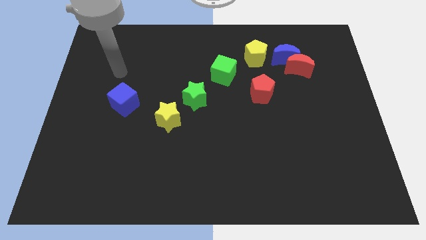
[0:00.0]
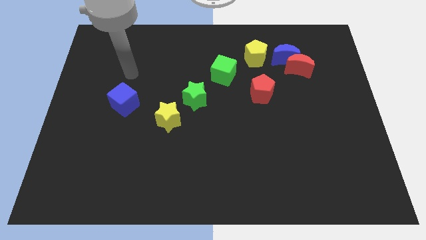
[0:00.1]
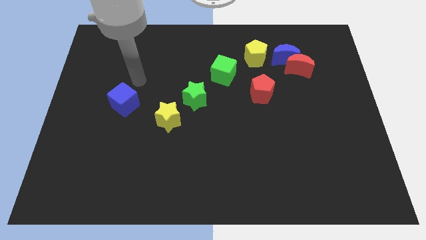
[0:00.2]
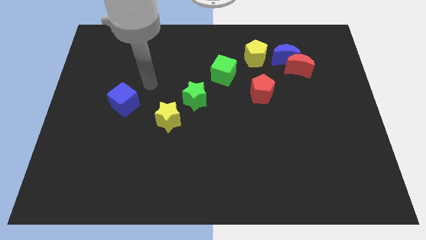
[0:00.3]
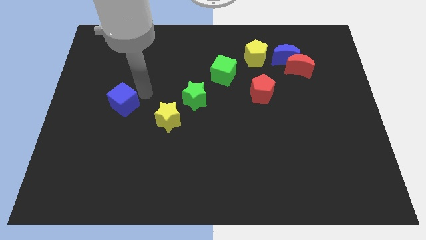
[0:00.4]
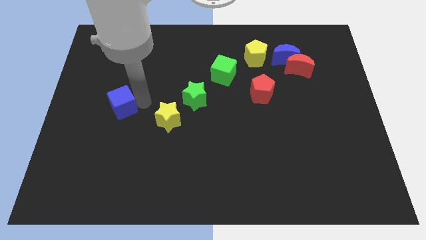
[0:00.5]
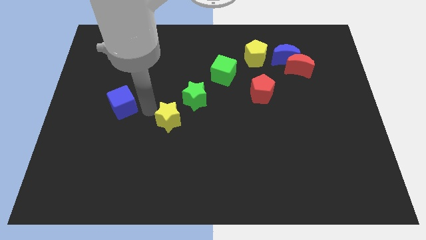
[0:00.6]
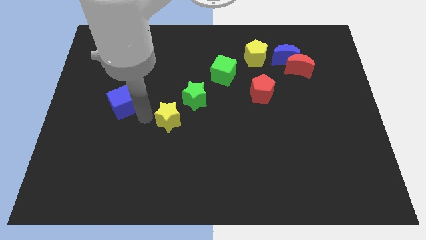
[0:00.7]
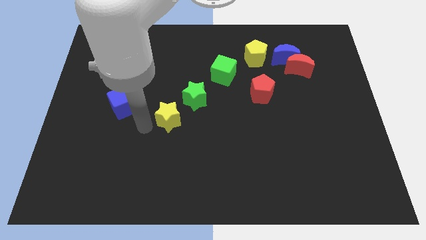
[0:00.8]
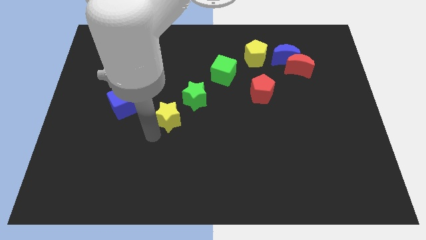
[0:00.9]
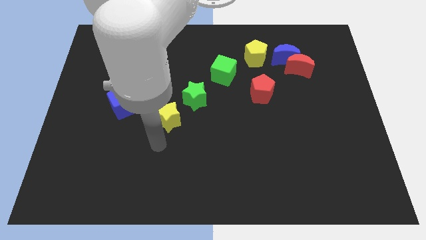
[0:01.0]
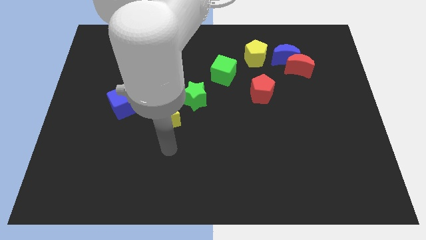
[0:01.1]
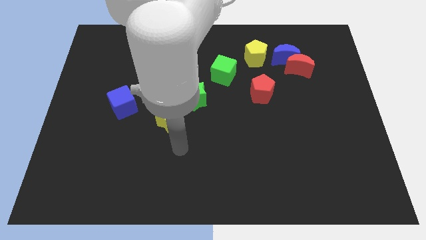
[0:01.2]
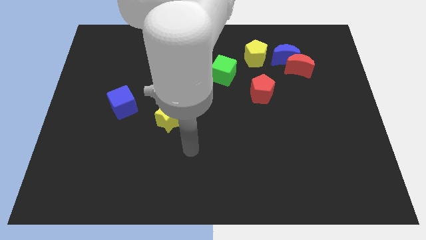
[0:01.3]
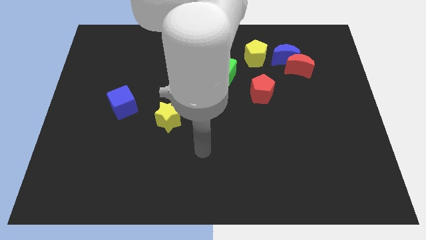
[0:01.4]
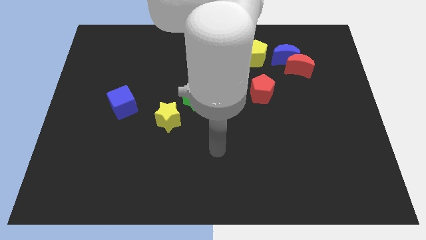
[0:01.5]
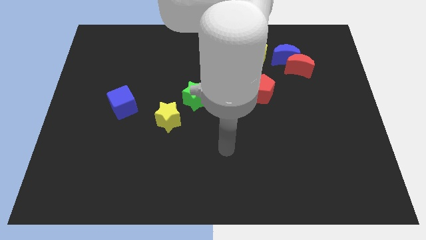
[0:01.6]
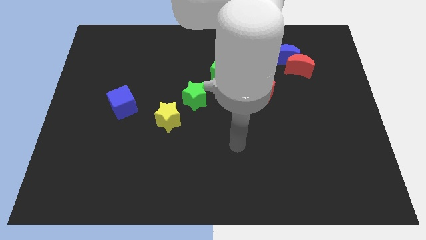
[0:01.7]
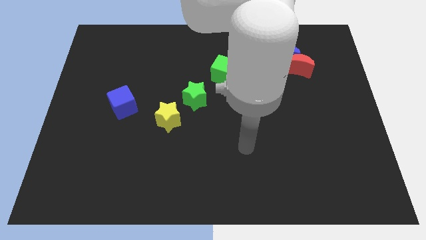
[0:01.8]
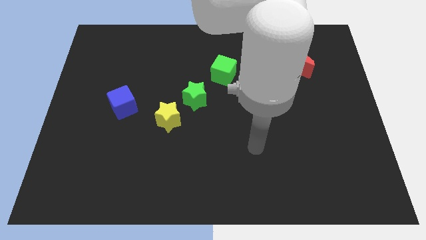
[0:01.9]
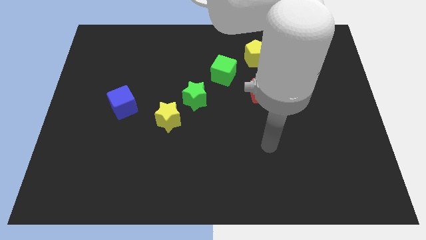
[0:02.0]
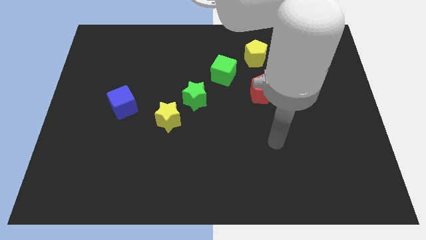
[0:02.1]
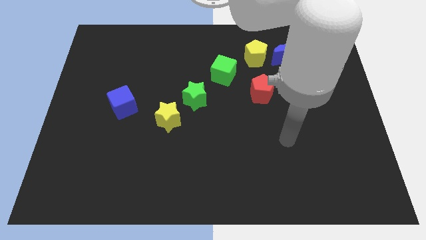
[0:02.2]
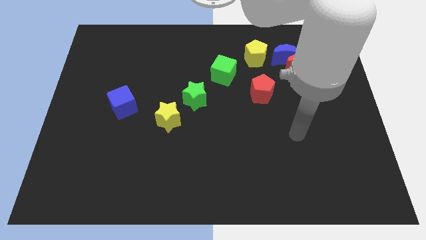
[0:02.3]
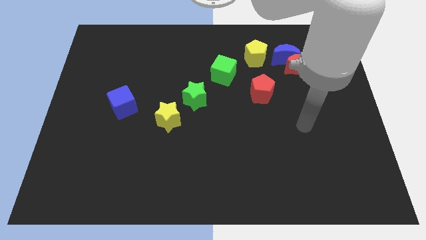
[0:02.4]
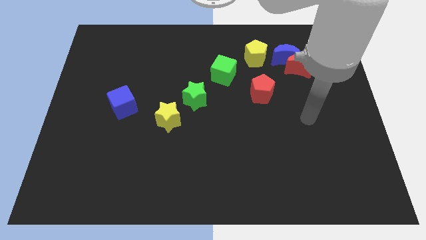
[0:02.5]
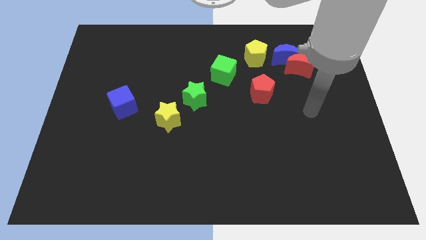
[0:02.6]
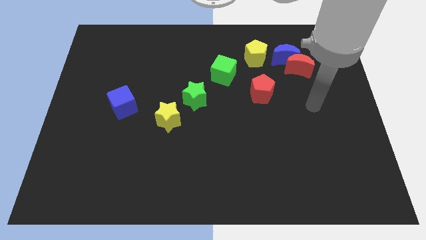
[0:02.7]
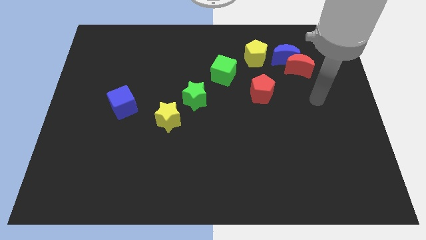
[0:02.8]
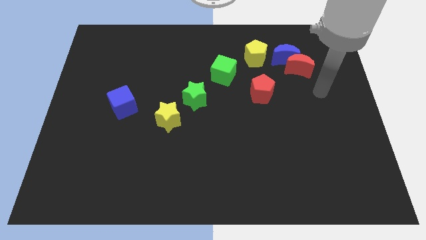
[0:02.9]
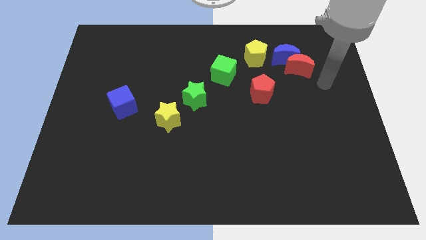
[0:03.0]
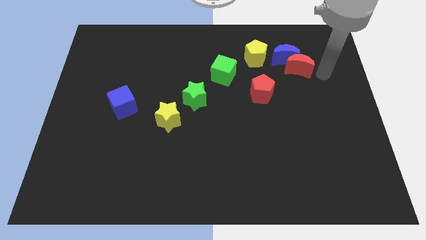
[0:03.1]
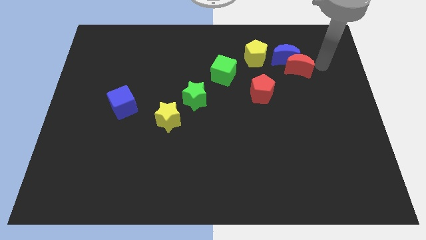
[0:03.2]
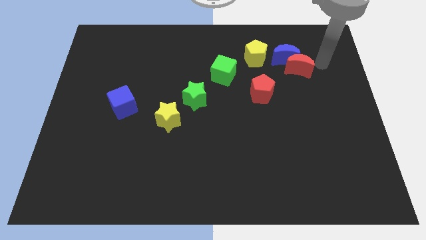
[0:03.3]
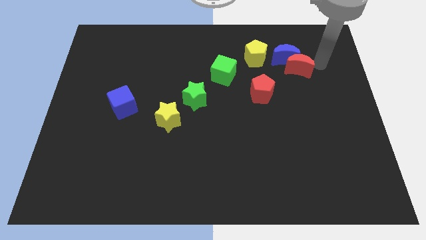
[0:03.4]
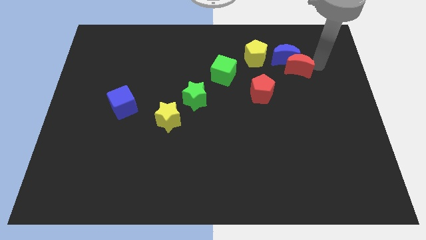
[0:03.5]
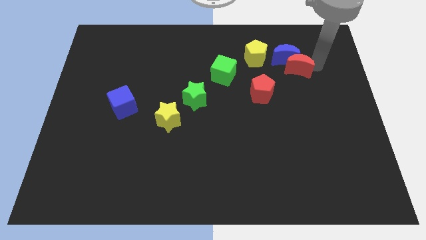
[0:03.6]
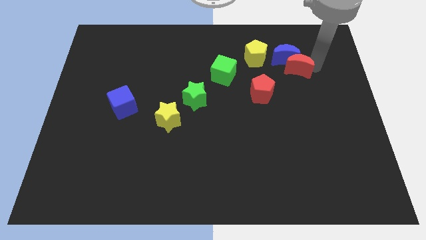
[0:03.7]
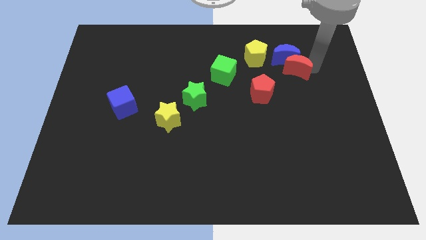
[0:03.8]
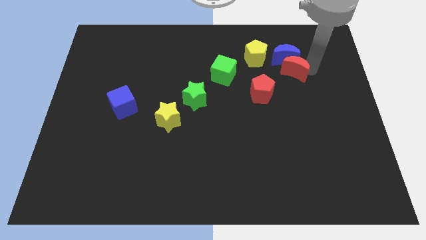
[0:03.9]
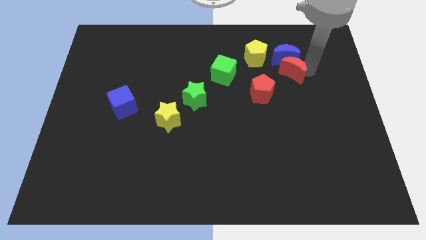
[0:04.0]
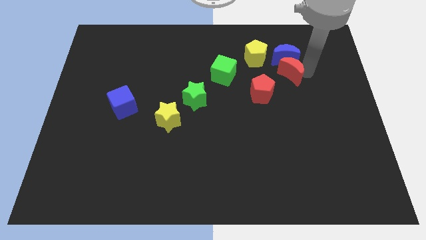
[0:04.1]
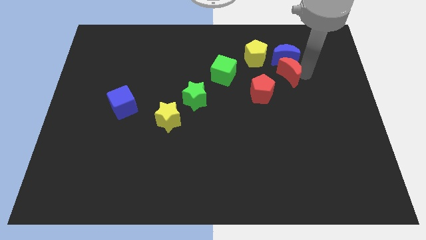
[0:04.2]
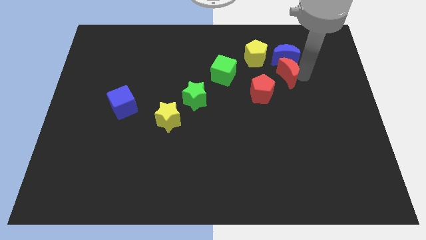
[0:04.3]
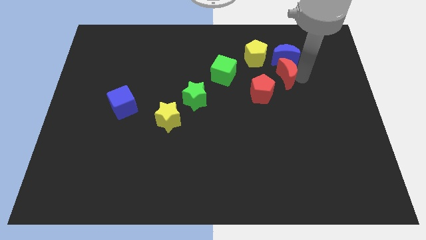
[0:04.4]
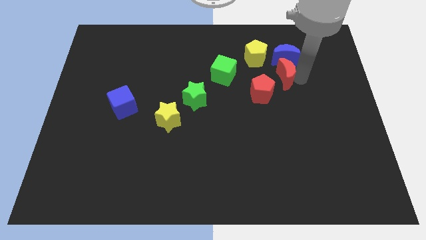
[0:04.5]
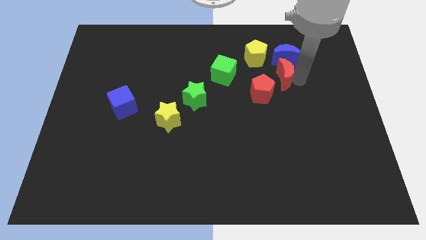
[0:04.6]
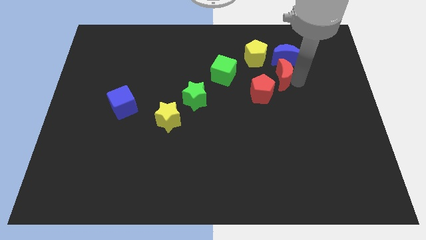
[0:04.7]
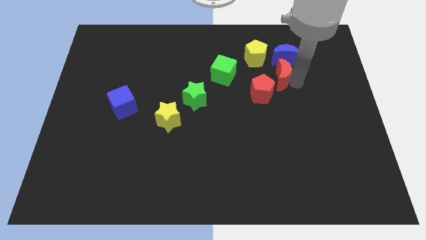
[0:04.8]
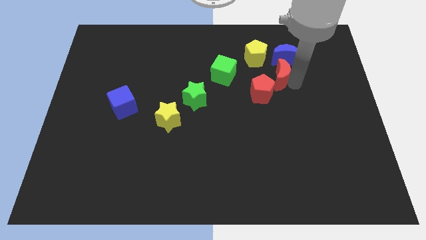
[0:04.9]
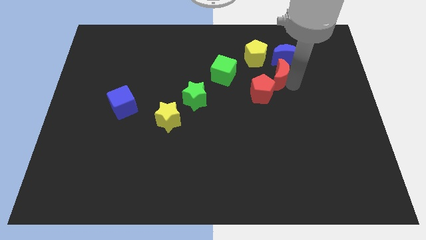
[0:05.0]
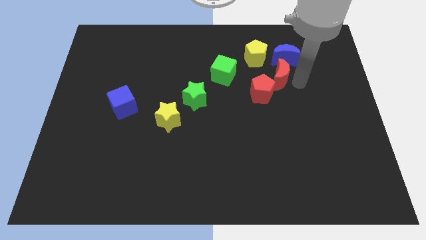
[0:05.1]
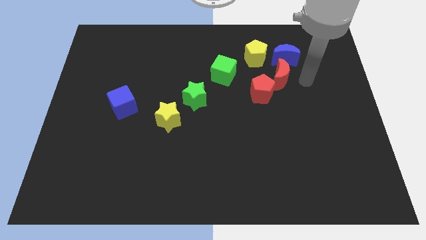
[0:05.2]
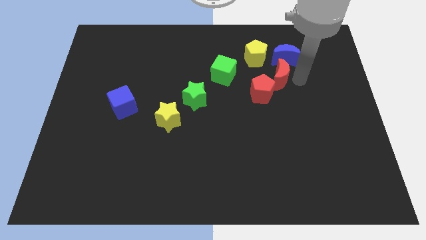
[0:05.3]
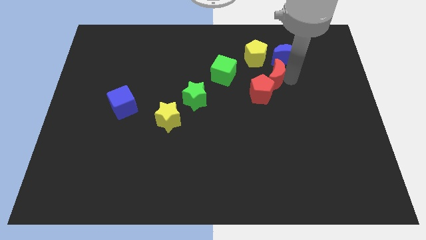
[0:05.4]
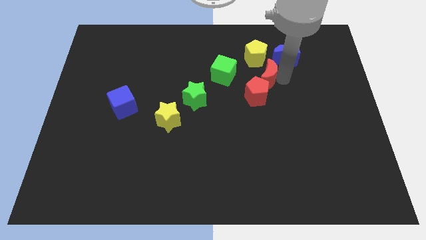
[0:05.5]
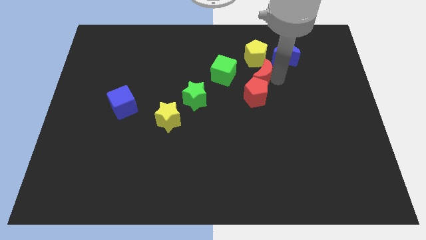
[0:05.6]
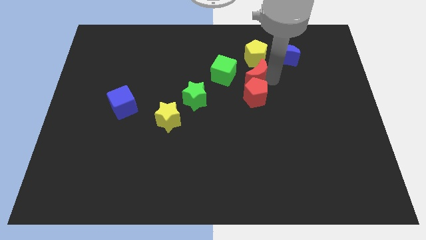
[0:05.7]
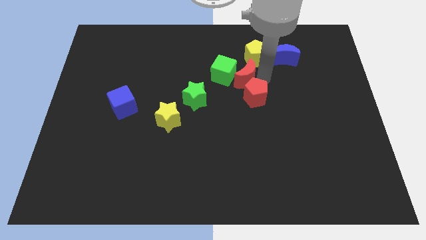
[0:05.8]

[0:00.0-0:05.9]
push the red moon towards the green cube

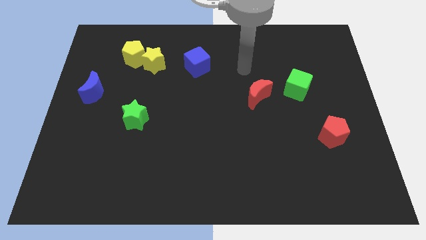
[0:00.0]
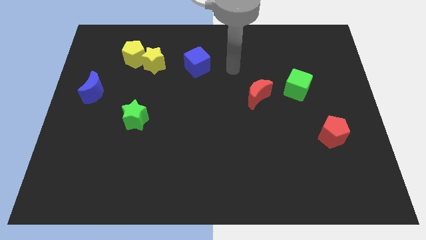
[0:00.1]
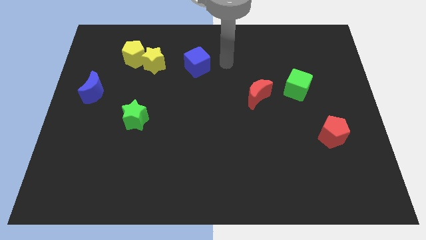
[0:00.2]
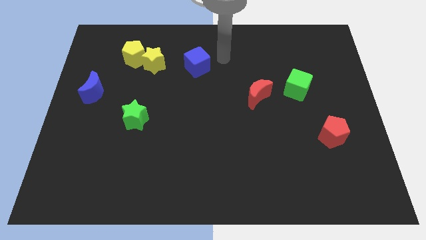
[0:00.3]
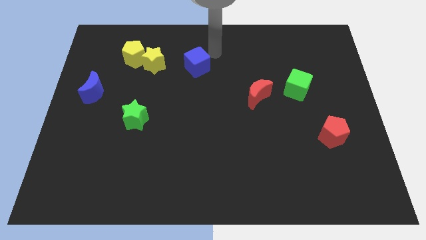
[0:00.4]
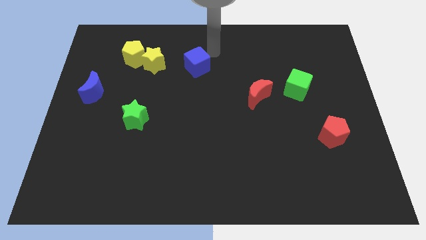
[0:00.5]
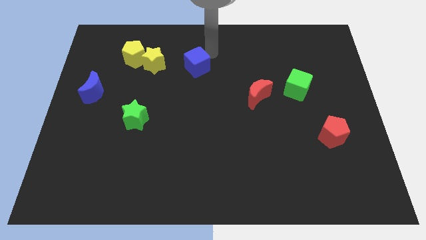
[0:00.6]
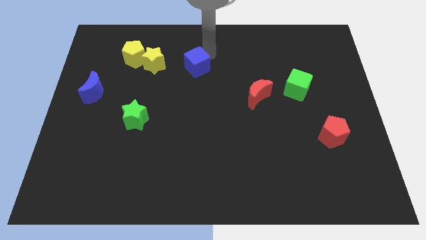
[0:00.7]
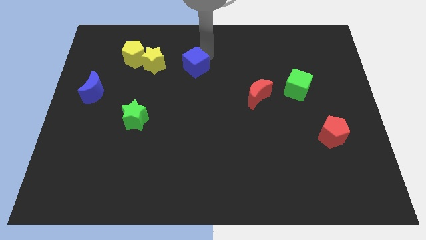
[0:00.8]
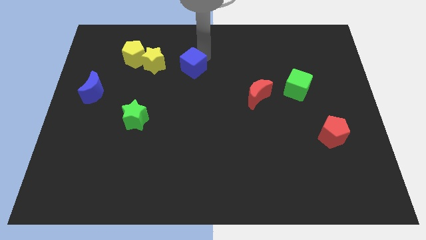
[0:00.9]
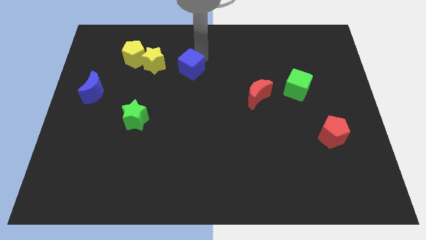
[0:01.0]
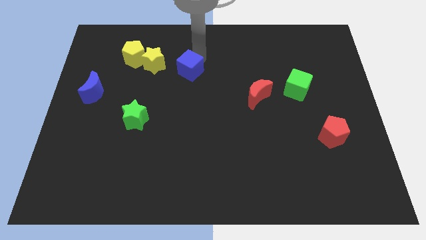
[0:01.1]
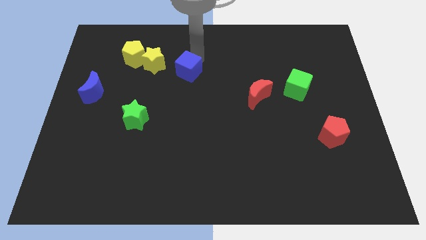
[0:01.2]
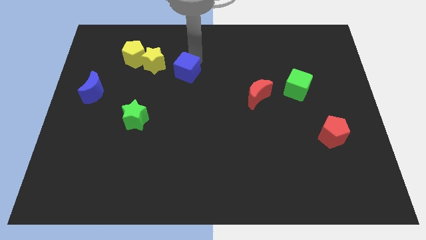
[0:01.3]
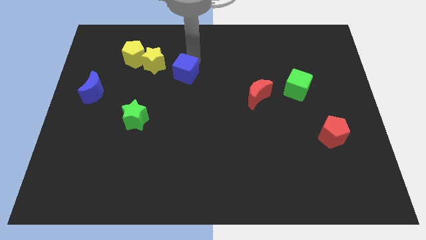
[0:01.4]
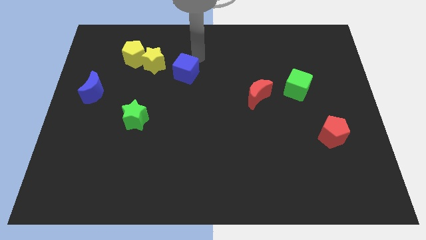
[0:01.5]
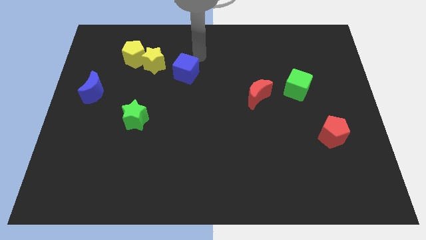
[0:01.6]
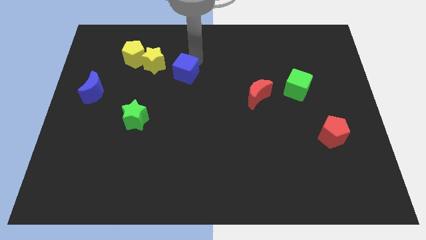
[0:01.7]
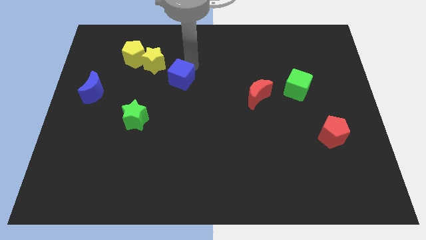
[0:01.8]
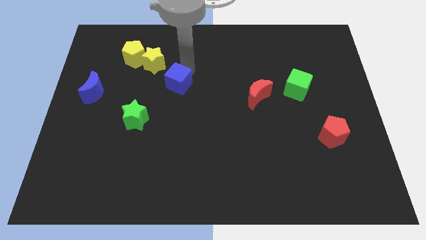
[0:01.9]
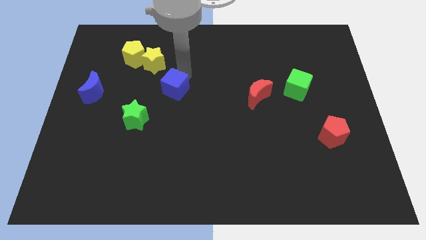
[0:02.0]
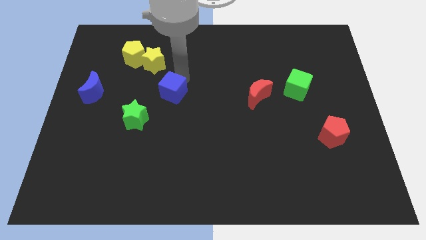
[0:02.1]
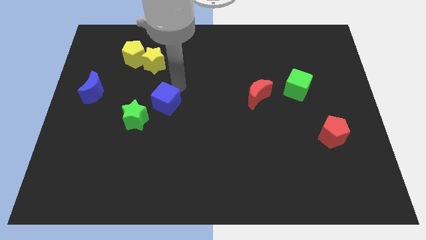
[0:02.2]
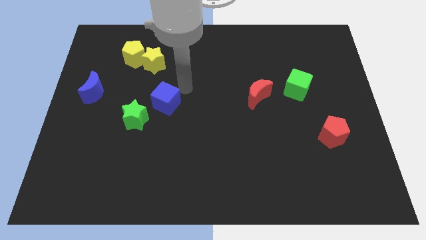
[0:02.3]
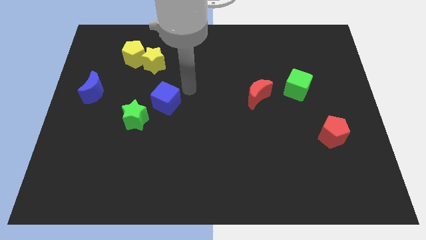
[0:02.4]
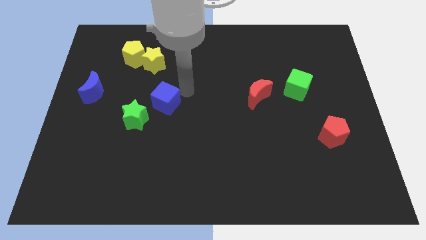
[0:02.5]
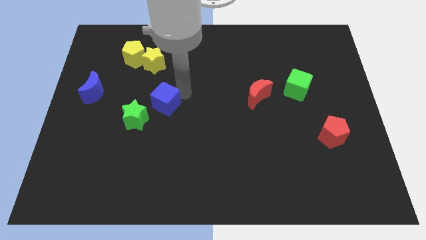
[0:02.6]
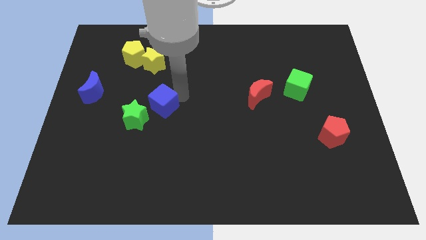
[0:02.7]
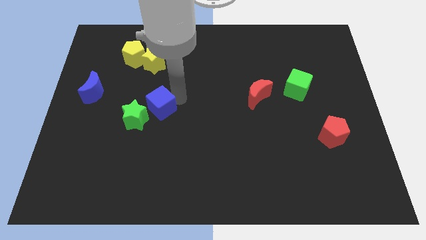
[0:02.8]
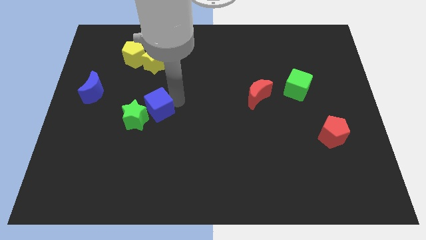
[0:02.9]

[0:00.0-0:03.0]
slide the blue cube next to the green star
